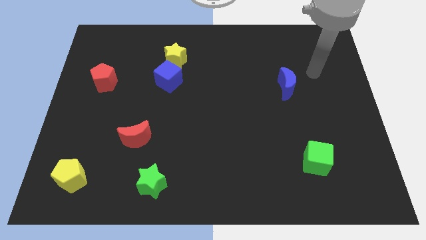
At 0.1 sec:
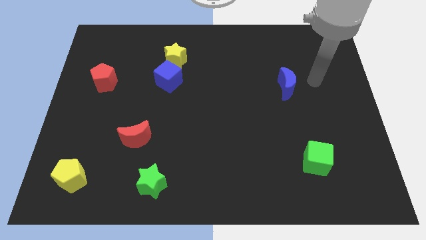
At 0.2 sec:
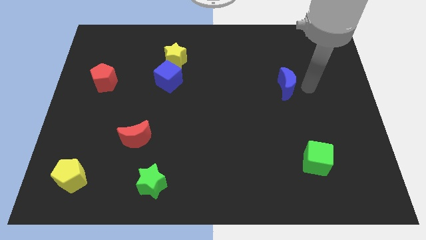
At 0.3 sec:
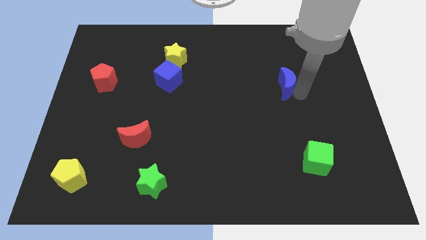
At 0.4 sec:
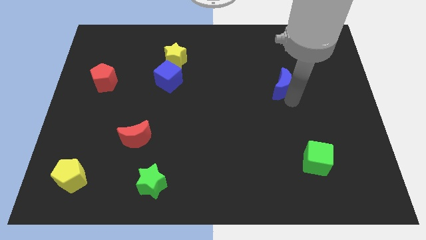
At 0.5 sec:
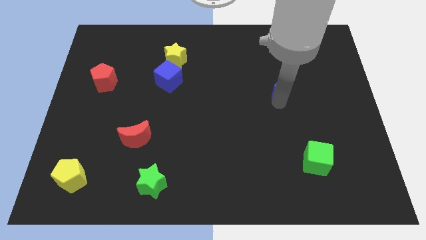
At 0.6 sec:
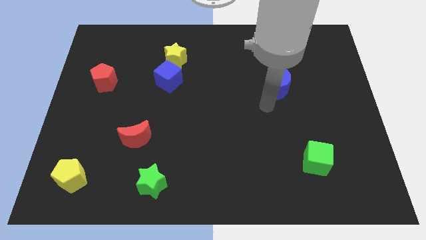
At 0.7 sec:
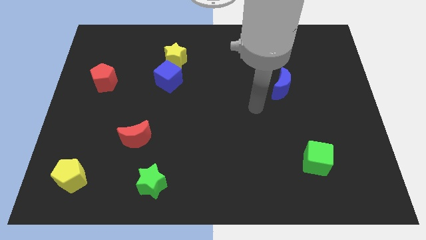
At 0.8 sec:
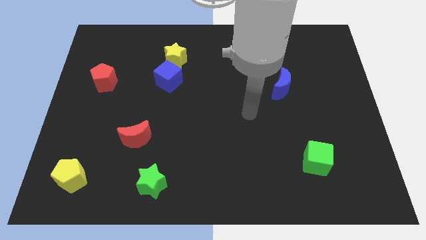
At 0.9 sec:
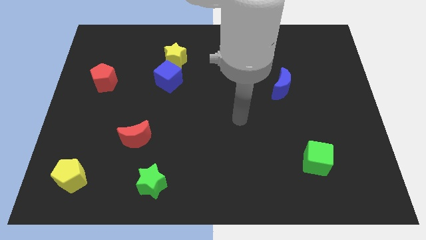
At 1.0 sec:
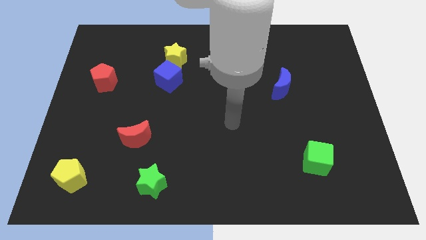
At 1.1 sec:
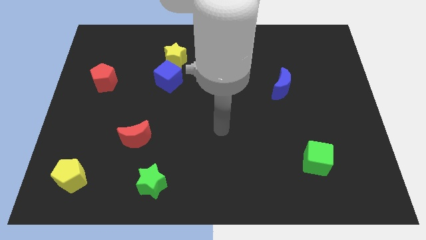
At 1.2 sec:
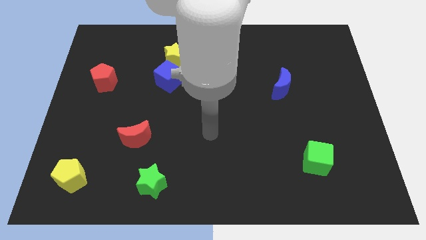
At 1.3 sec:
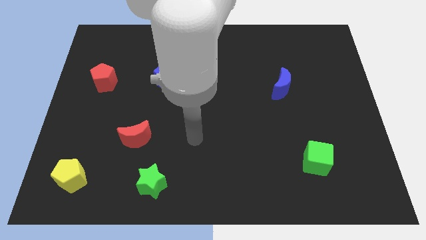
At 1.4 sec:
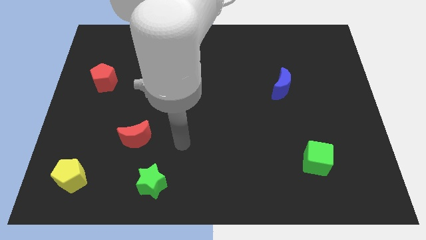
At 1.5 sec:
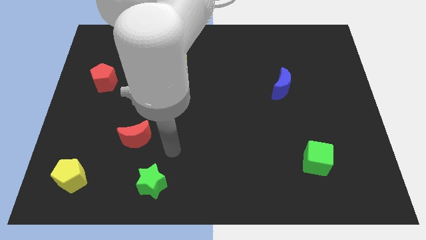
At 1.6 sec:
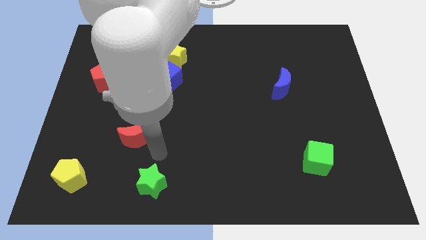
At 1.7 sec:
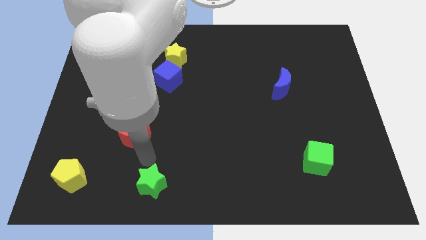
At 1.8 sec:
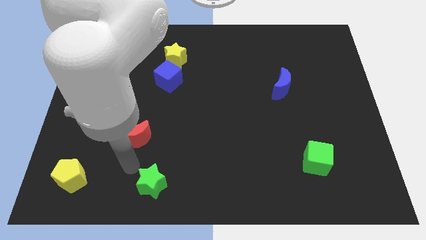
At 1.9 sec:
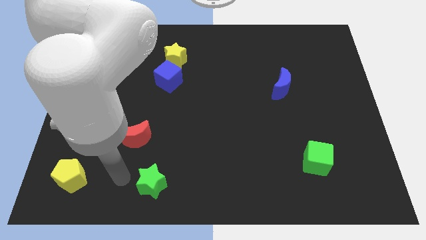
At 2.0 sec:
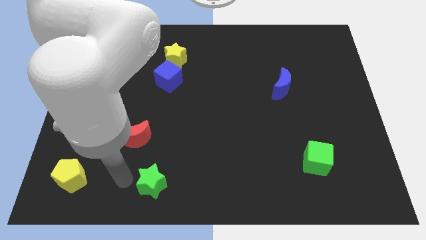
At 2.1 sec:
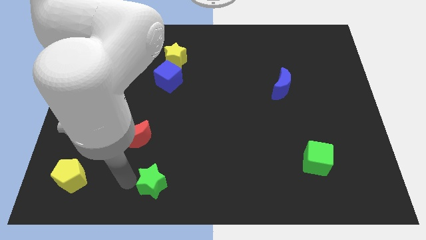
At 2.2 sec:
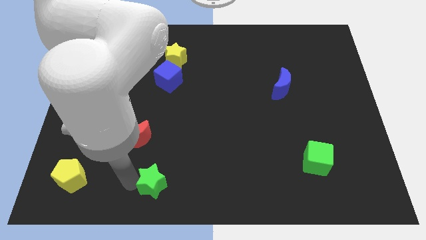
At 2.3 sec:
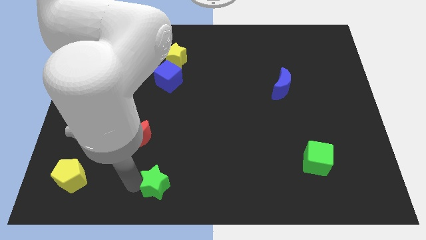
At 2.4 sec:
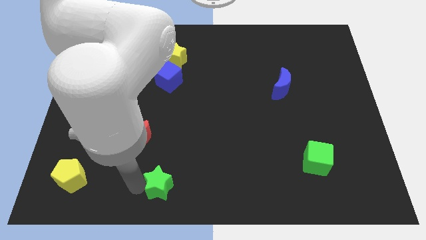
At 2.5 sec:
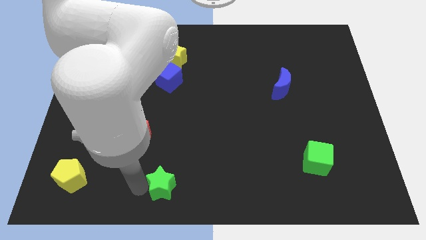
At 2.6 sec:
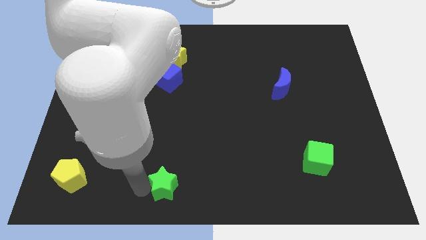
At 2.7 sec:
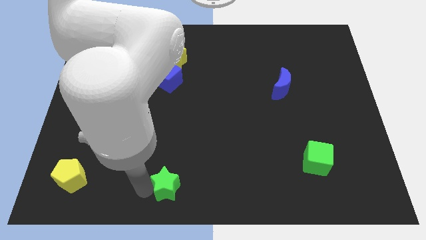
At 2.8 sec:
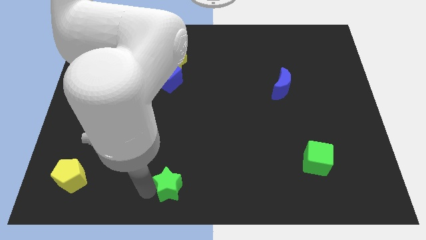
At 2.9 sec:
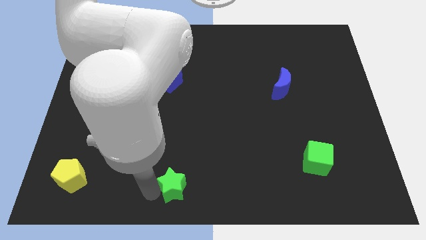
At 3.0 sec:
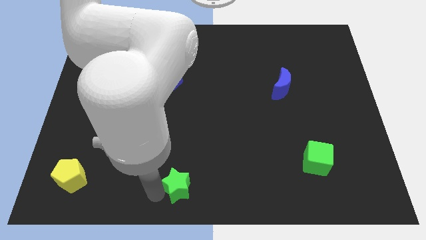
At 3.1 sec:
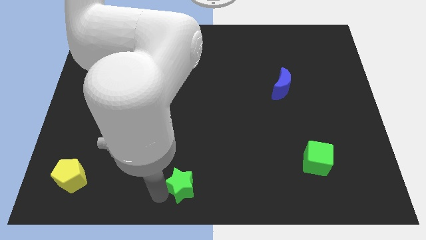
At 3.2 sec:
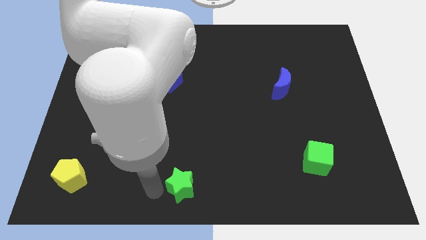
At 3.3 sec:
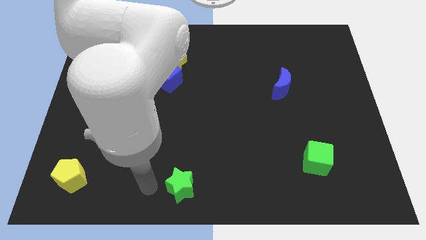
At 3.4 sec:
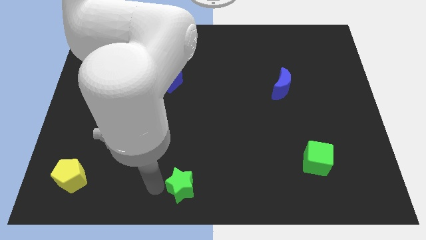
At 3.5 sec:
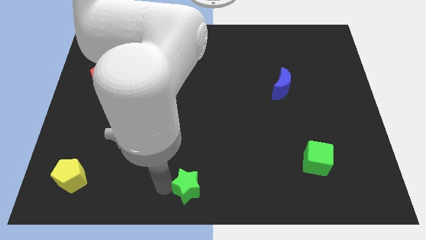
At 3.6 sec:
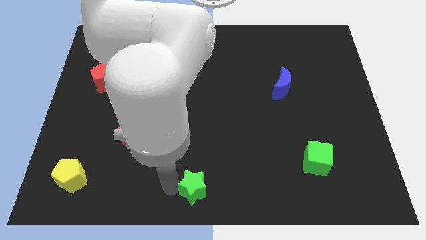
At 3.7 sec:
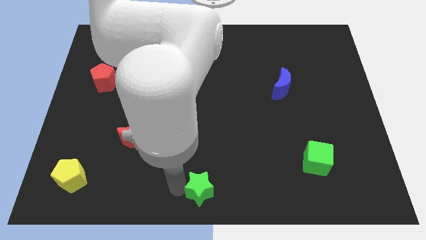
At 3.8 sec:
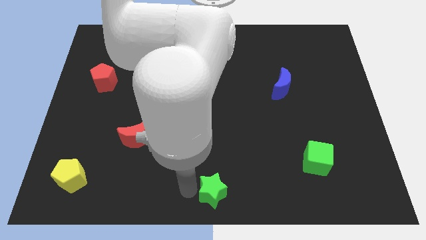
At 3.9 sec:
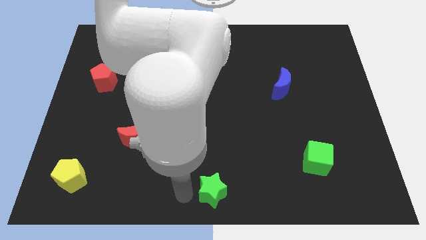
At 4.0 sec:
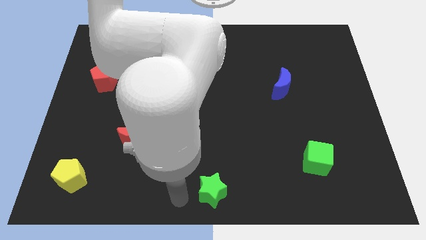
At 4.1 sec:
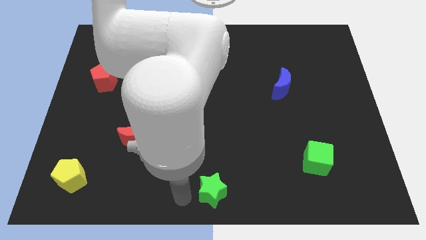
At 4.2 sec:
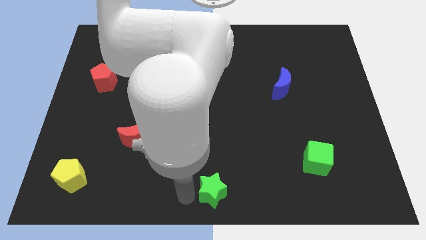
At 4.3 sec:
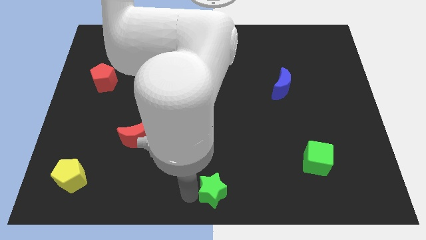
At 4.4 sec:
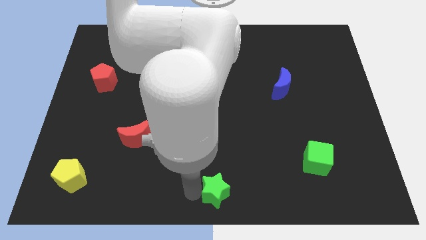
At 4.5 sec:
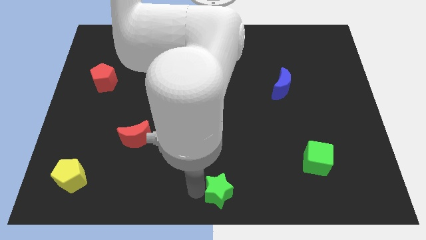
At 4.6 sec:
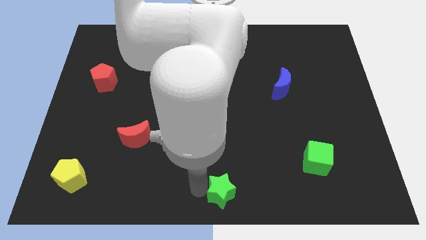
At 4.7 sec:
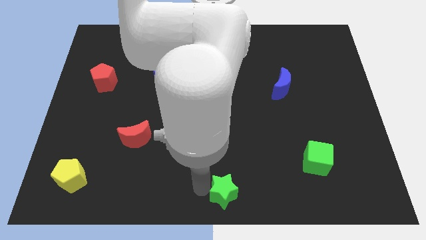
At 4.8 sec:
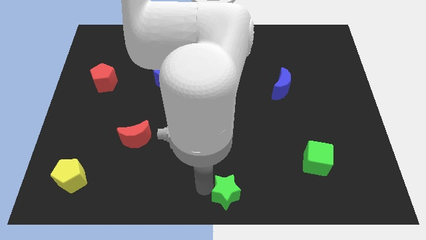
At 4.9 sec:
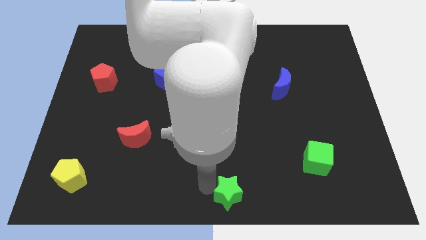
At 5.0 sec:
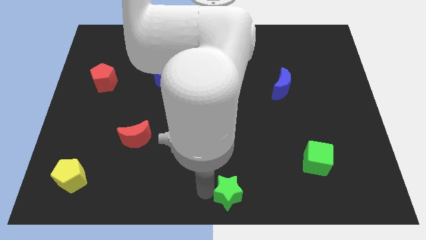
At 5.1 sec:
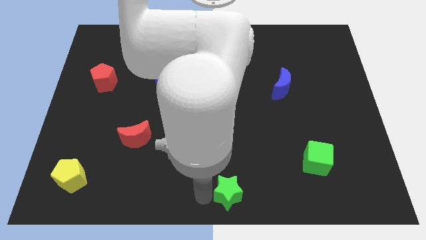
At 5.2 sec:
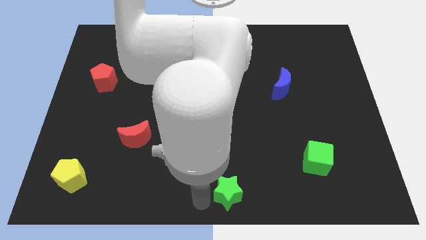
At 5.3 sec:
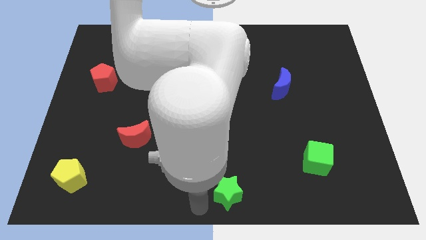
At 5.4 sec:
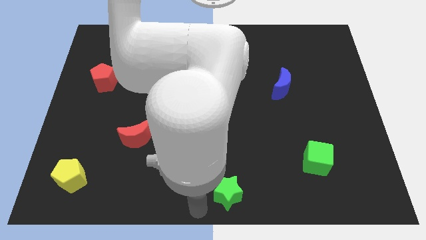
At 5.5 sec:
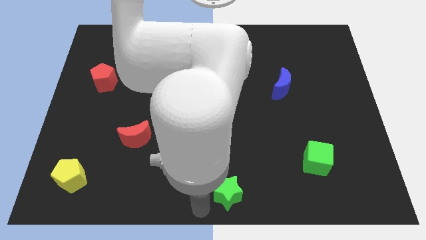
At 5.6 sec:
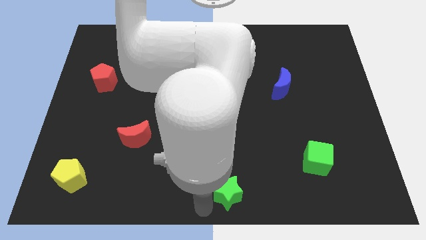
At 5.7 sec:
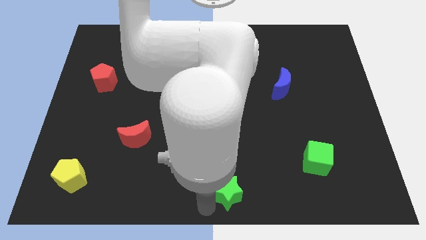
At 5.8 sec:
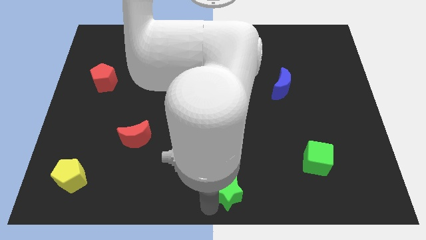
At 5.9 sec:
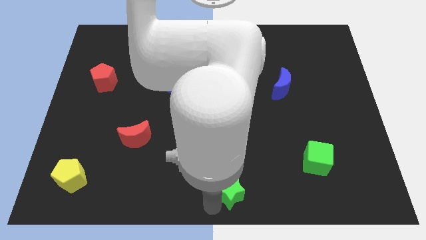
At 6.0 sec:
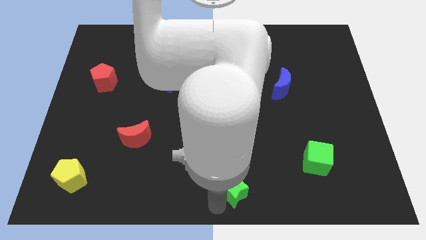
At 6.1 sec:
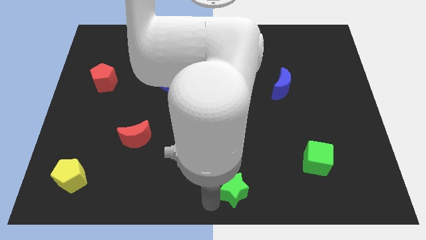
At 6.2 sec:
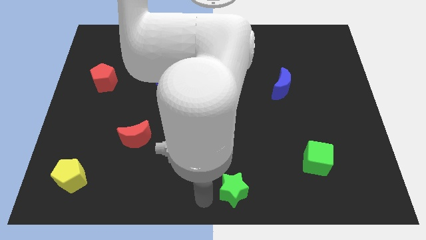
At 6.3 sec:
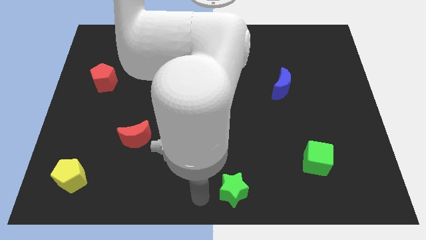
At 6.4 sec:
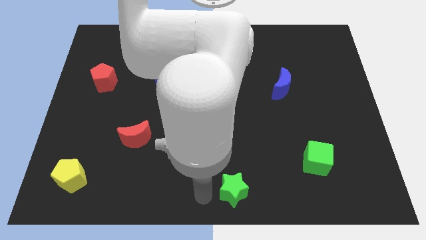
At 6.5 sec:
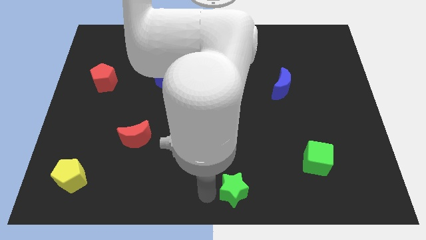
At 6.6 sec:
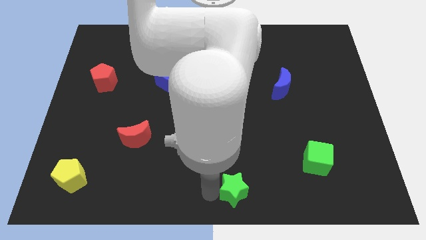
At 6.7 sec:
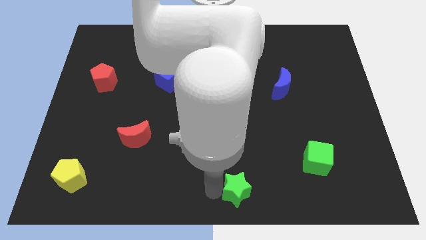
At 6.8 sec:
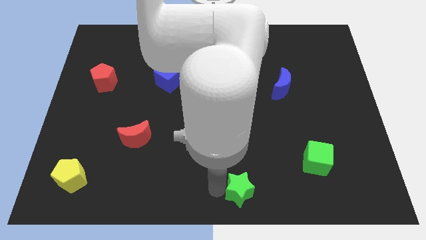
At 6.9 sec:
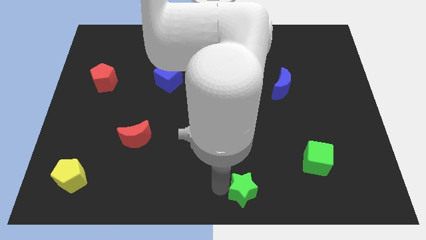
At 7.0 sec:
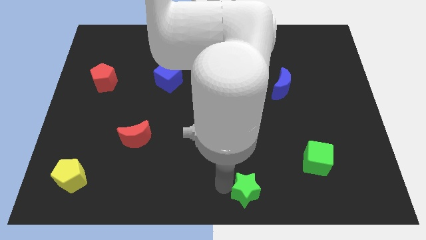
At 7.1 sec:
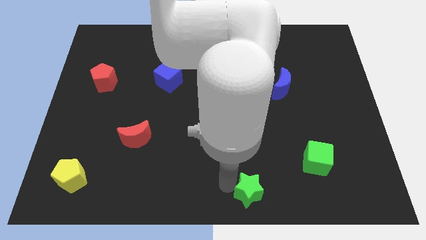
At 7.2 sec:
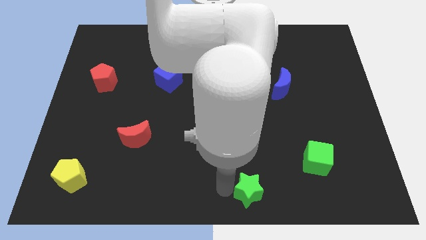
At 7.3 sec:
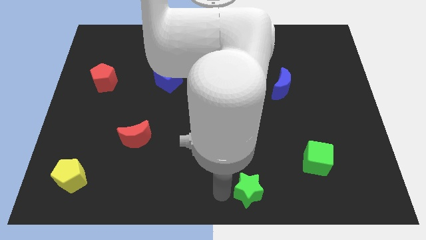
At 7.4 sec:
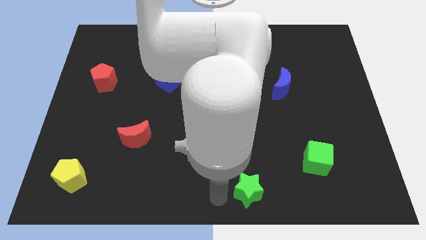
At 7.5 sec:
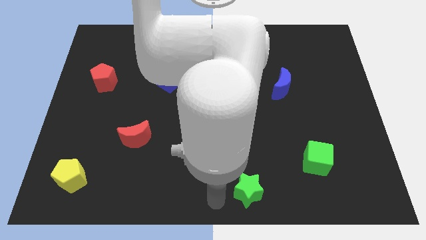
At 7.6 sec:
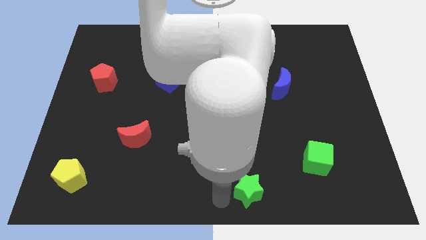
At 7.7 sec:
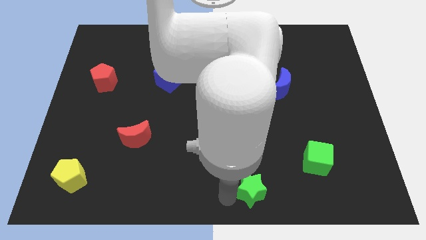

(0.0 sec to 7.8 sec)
push the green star right
